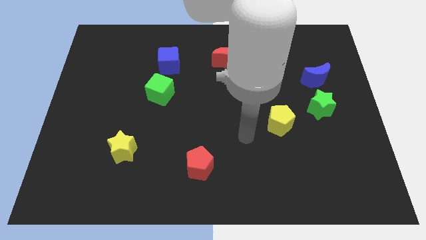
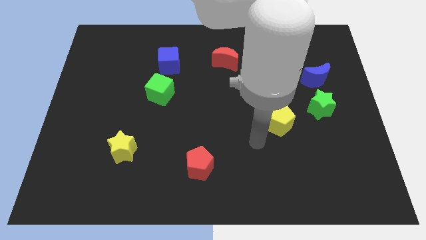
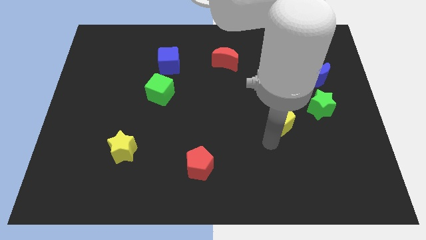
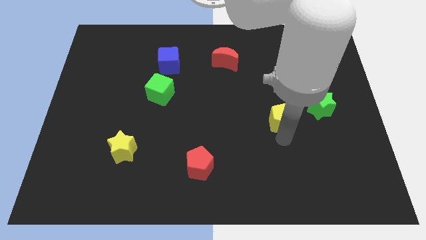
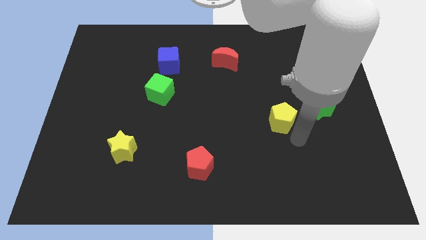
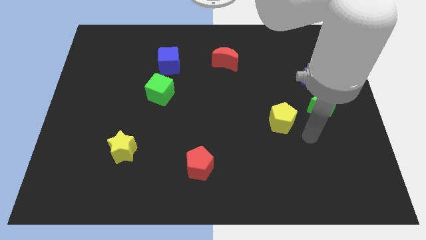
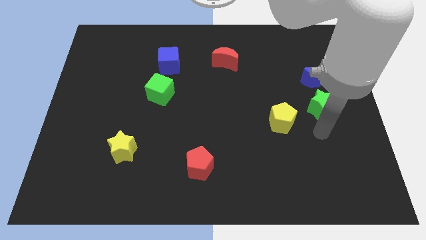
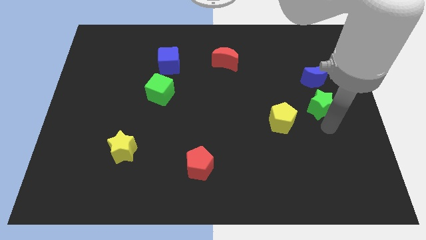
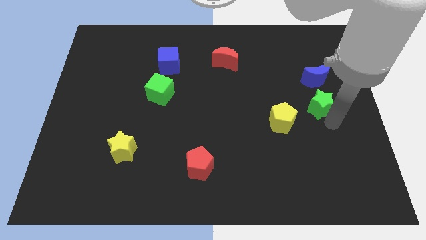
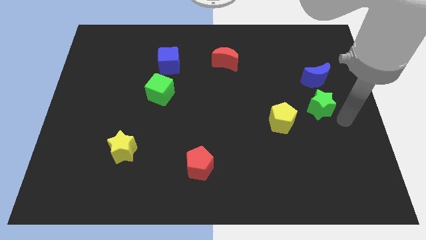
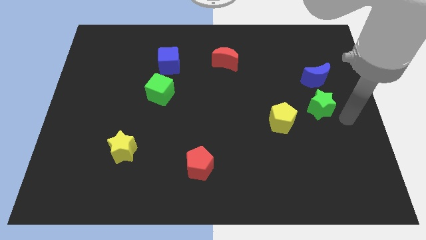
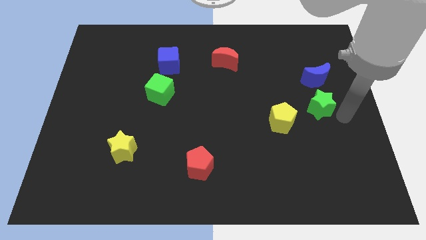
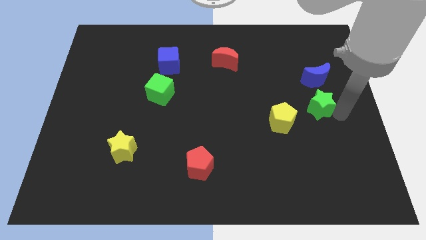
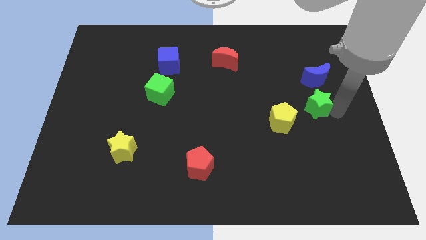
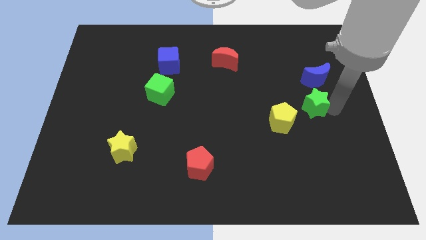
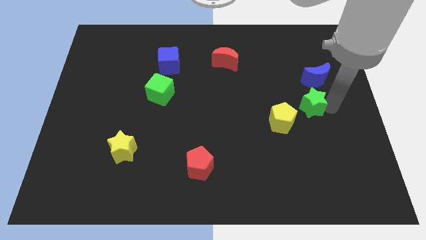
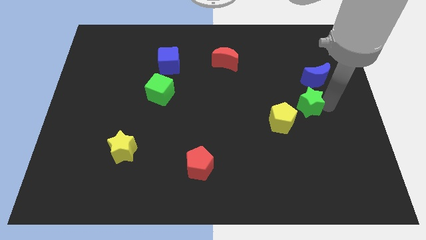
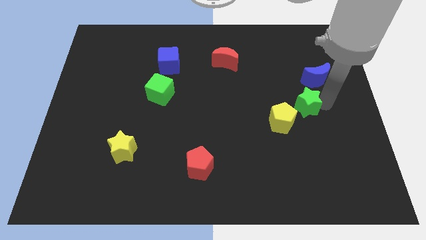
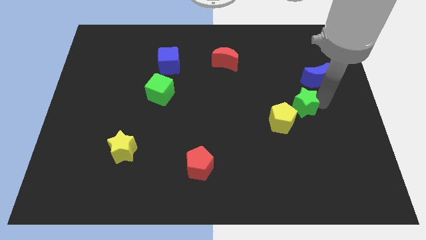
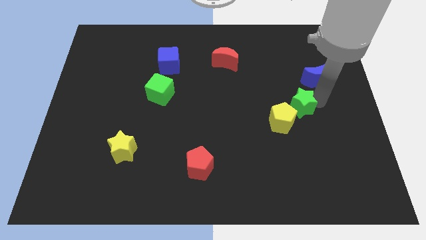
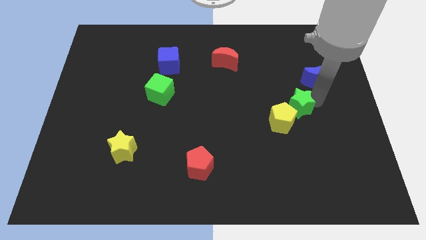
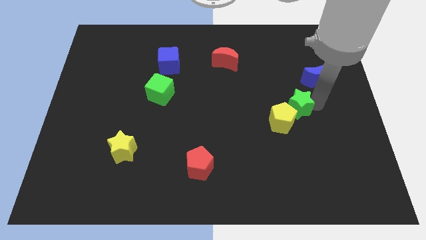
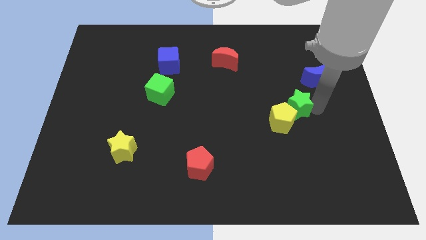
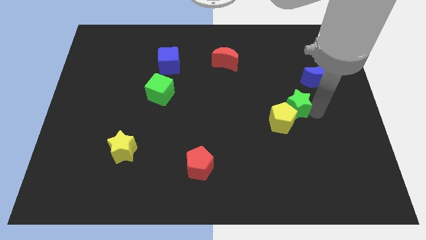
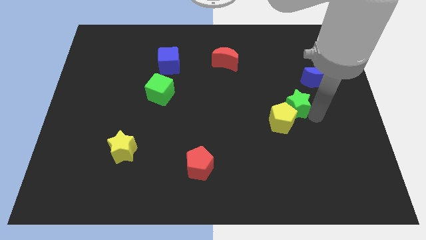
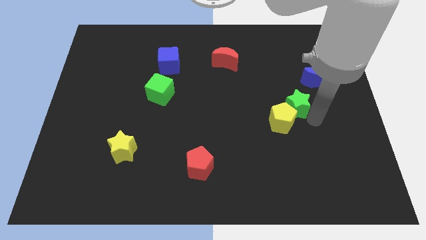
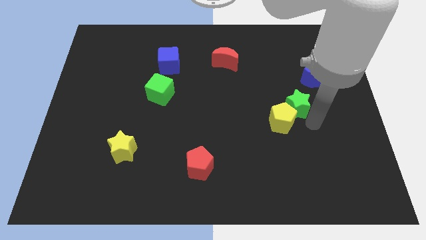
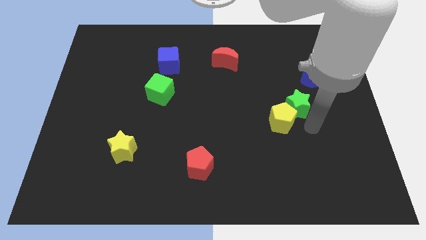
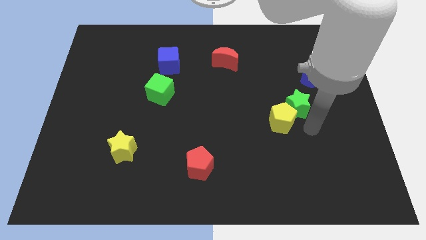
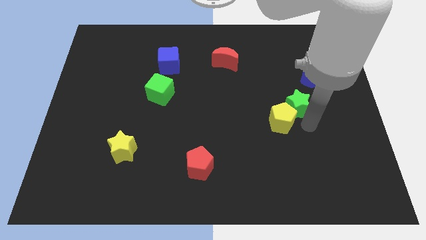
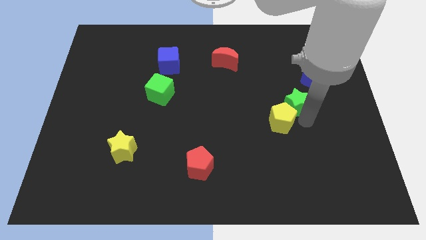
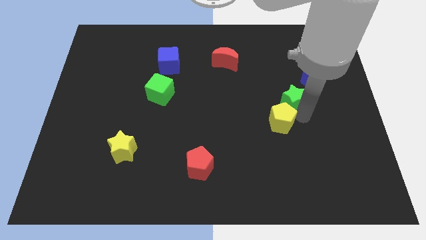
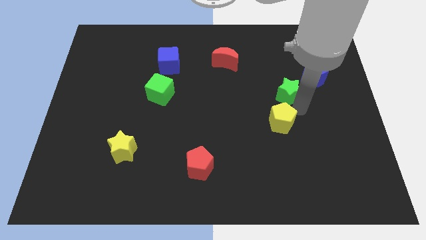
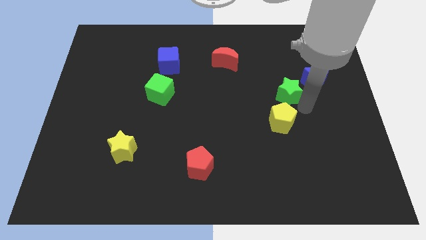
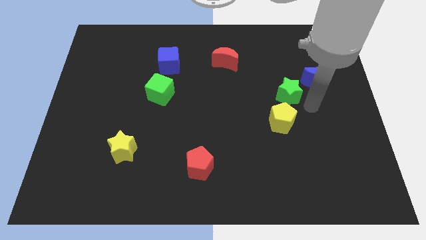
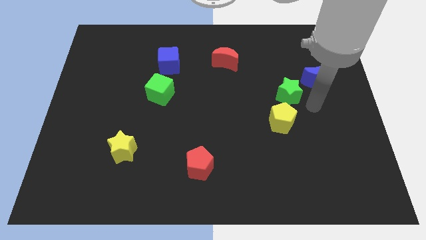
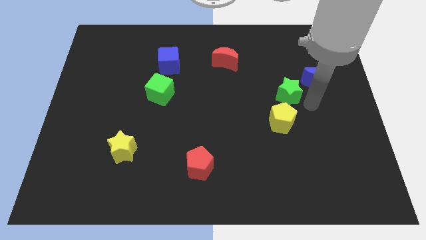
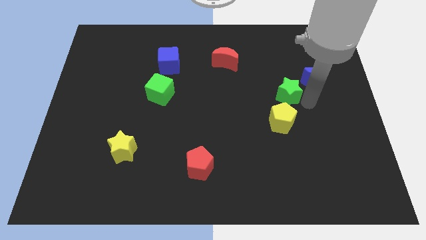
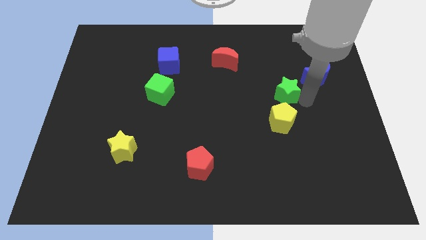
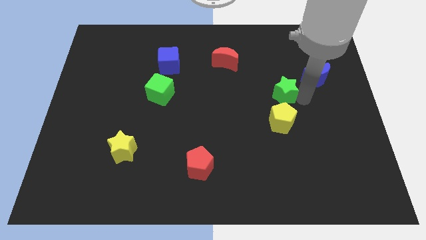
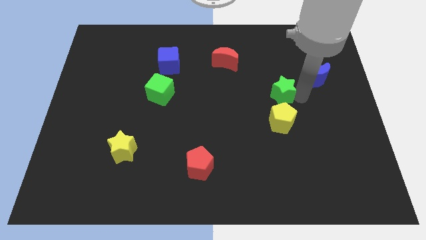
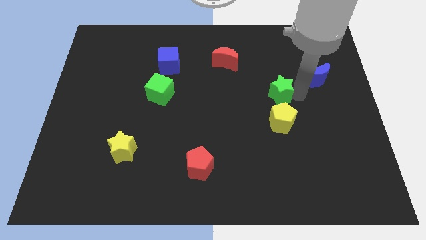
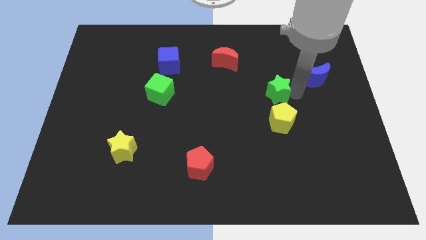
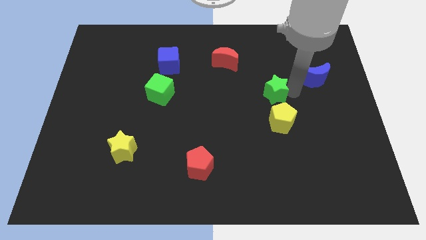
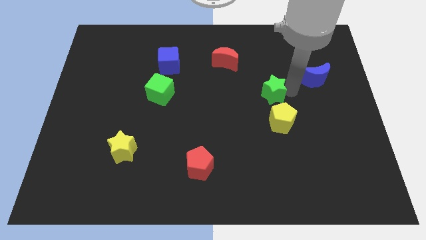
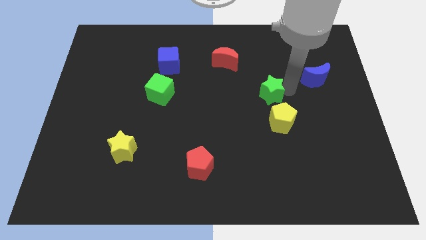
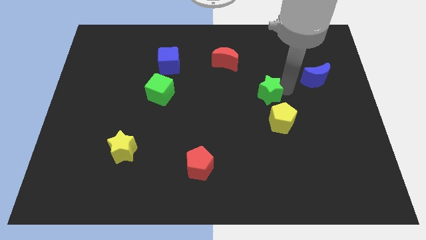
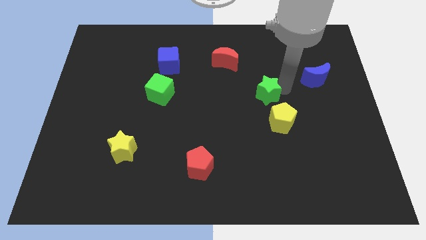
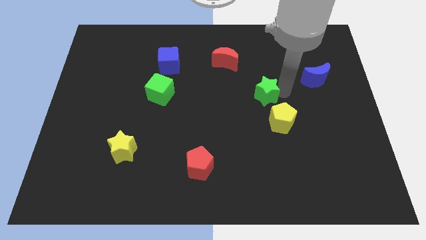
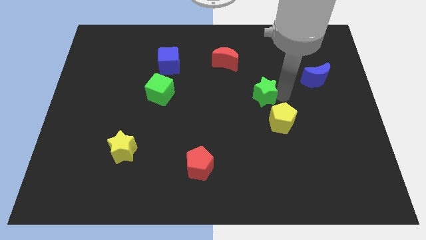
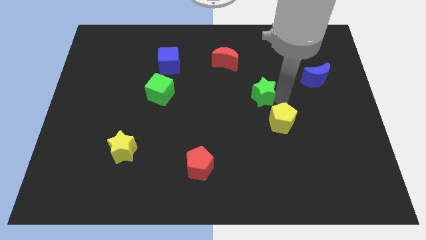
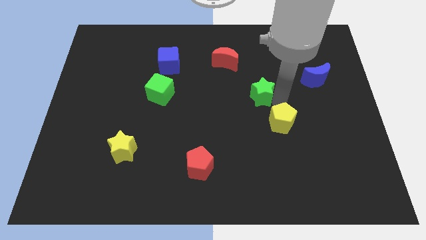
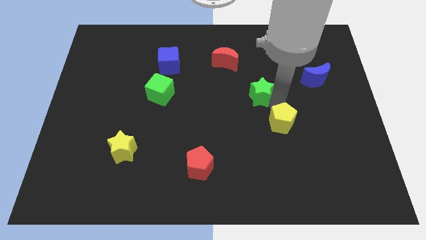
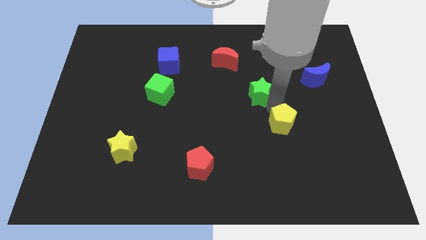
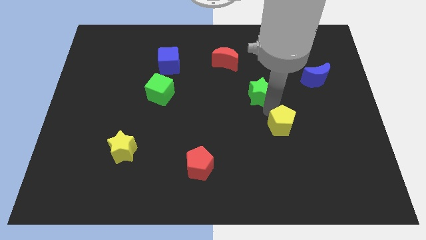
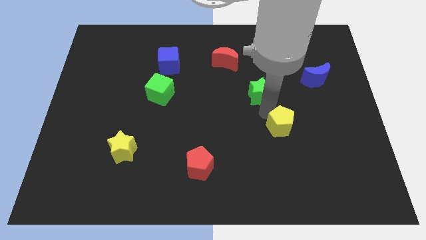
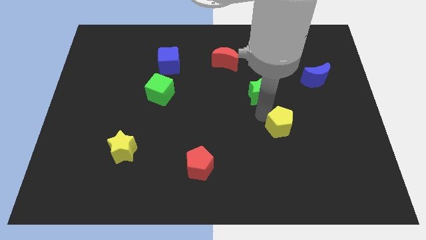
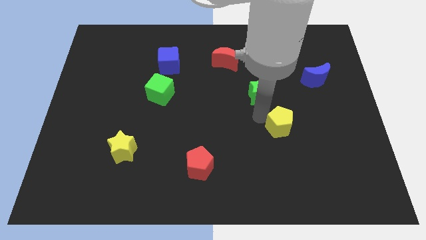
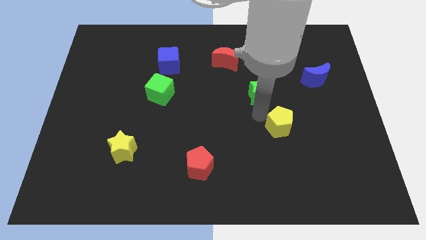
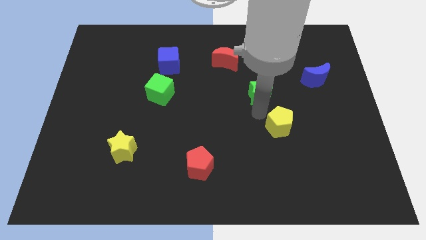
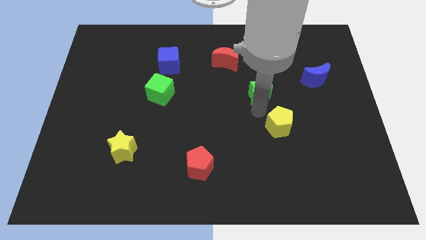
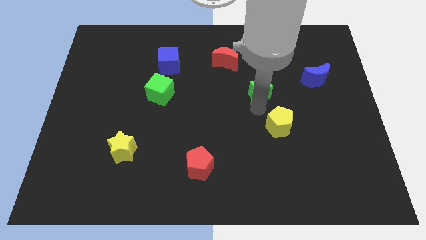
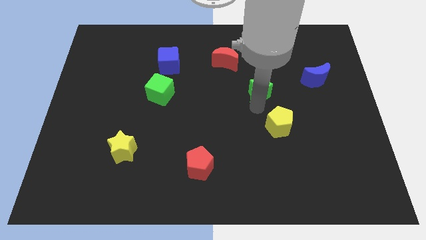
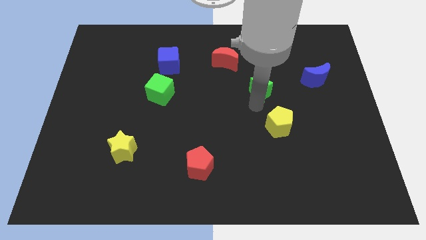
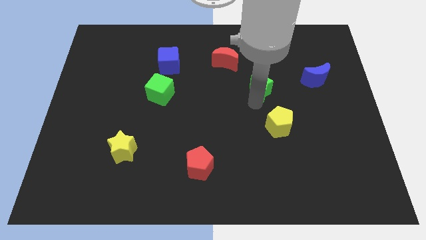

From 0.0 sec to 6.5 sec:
push the green star diagonally down and to the right of the red moon
